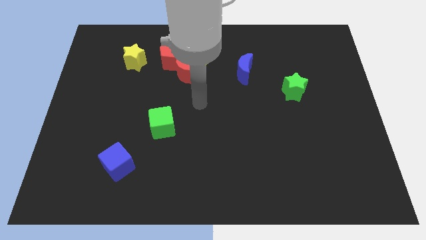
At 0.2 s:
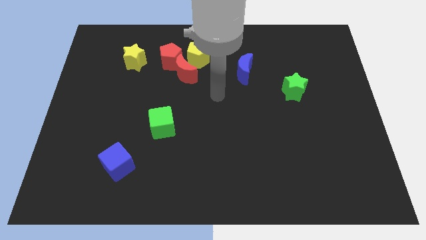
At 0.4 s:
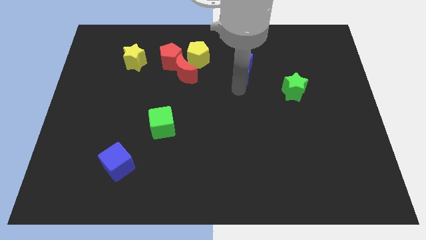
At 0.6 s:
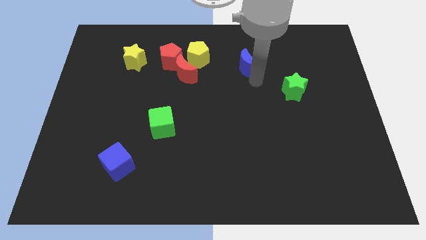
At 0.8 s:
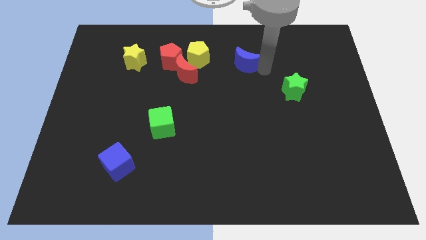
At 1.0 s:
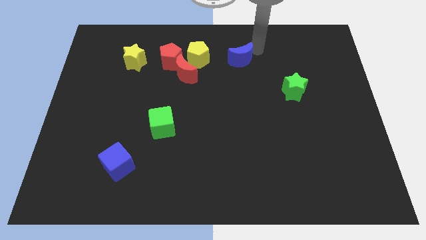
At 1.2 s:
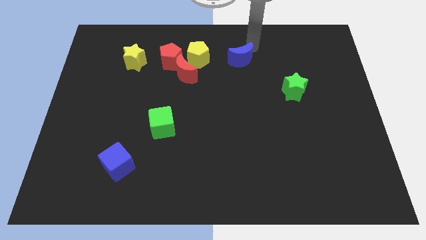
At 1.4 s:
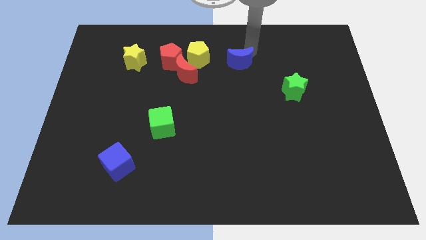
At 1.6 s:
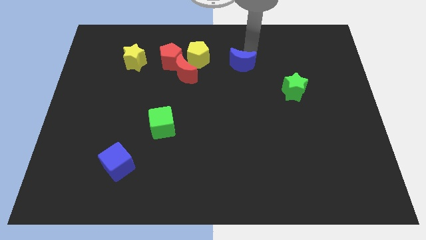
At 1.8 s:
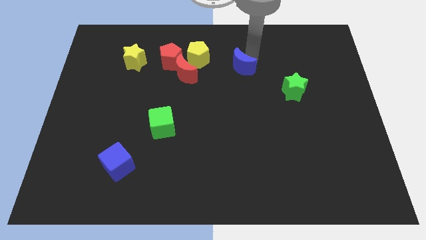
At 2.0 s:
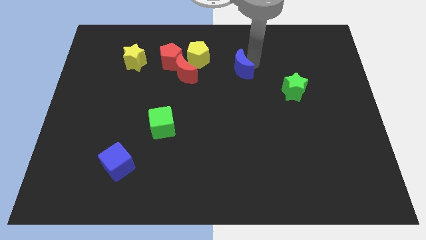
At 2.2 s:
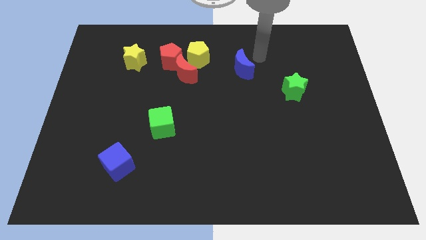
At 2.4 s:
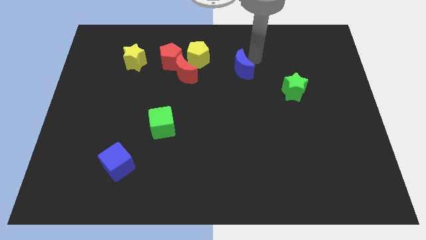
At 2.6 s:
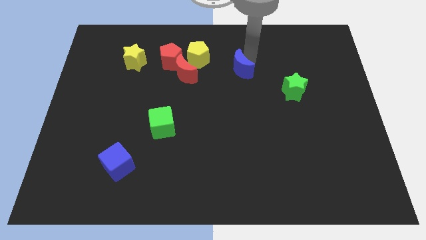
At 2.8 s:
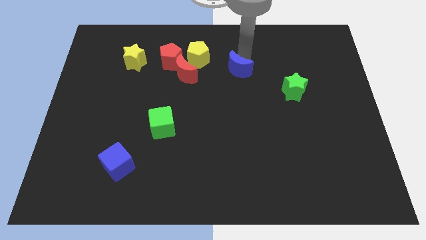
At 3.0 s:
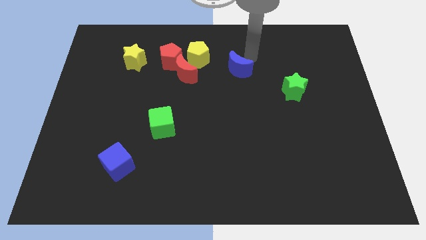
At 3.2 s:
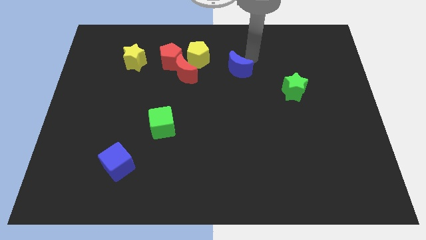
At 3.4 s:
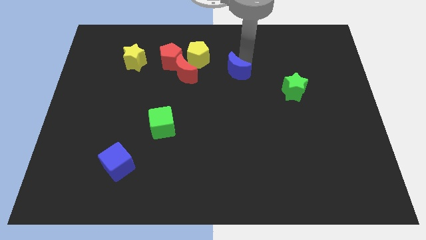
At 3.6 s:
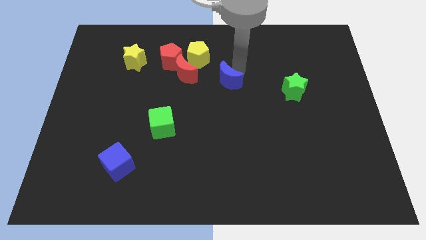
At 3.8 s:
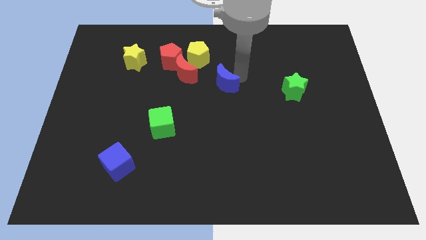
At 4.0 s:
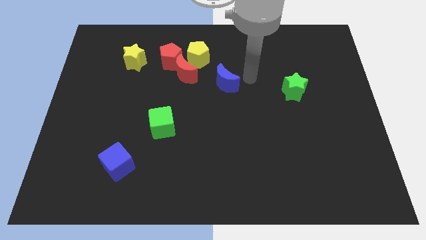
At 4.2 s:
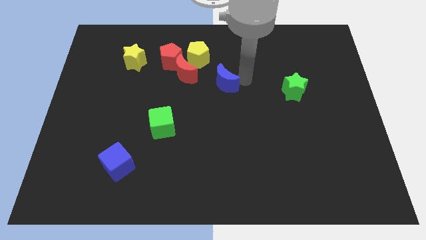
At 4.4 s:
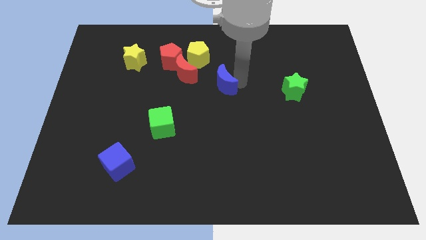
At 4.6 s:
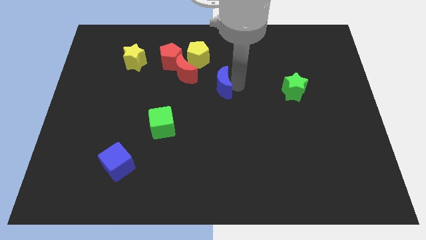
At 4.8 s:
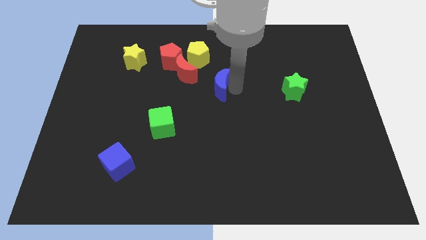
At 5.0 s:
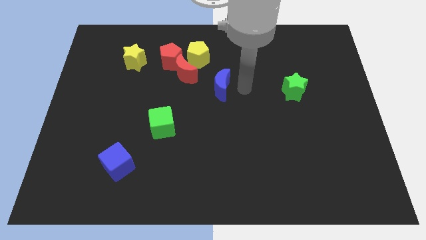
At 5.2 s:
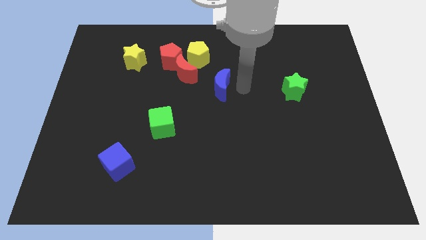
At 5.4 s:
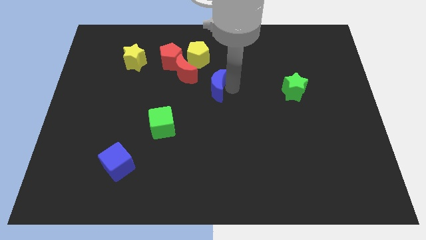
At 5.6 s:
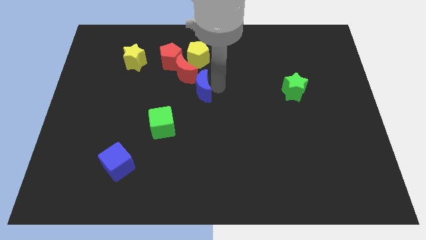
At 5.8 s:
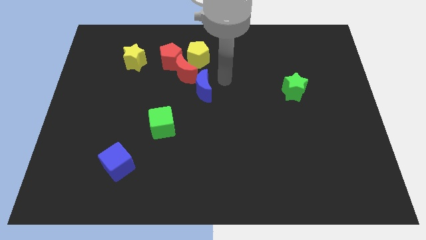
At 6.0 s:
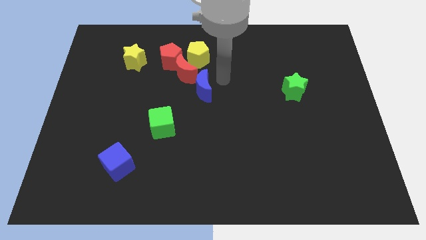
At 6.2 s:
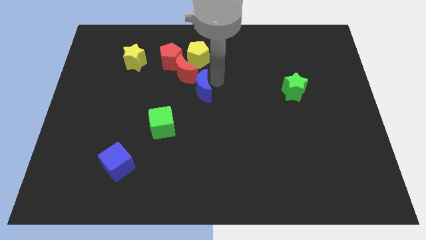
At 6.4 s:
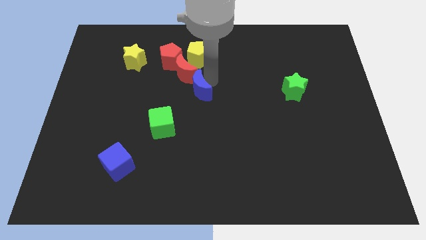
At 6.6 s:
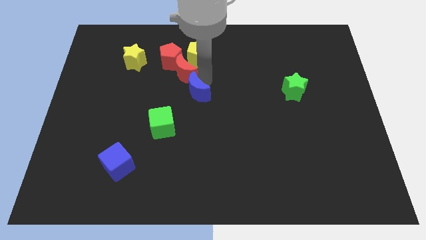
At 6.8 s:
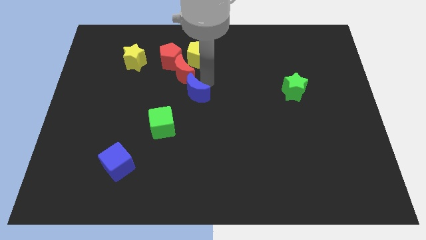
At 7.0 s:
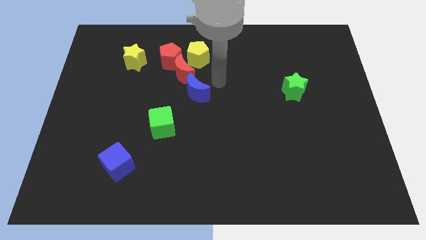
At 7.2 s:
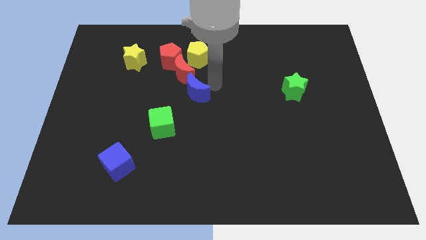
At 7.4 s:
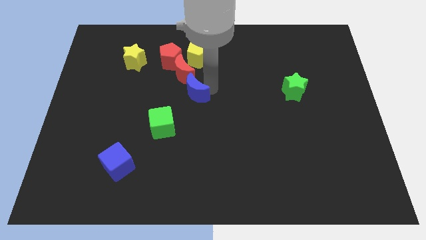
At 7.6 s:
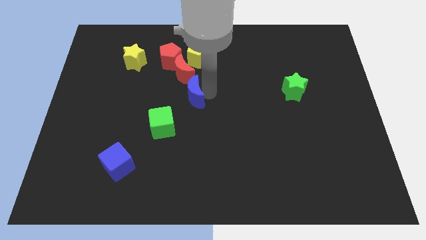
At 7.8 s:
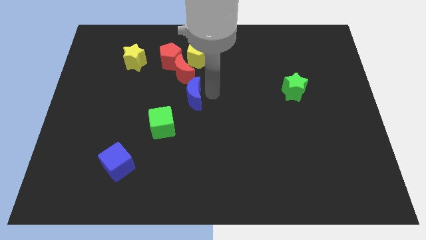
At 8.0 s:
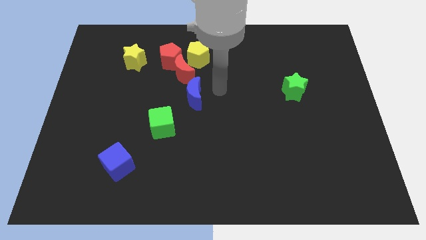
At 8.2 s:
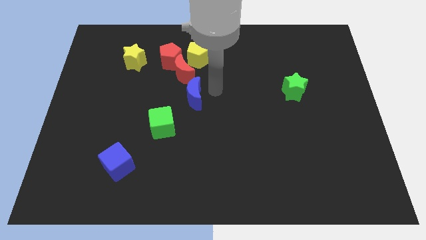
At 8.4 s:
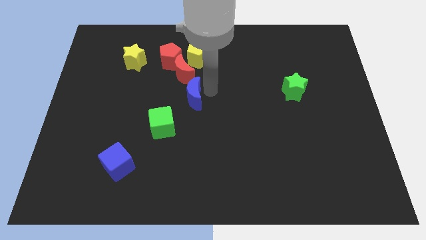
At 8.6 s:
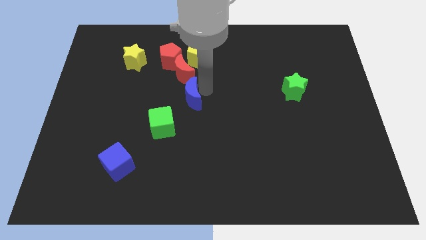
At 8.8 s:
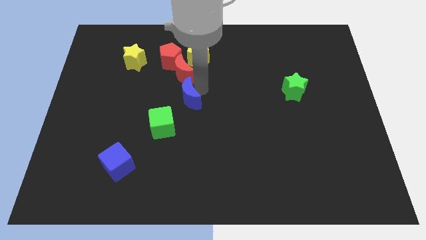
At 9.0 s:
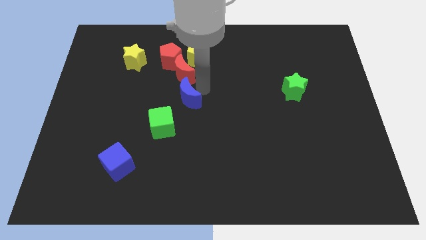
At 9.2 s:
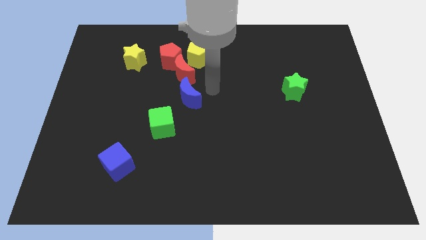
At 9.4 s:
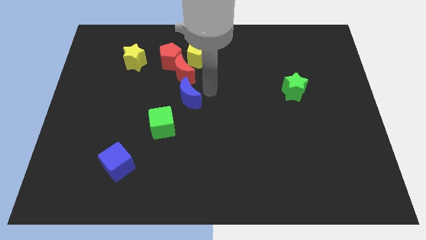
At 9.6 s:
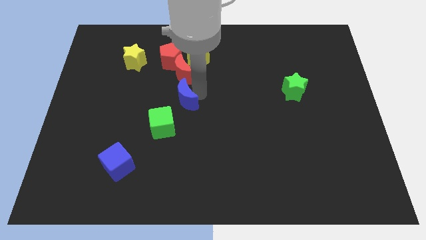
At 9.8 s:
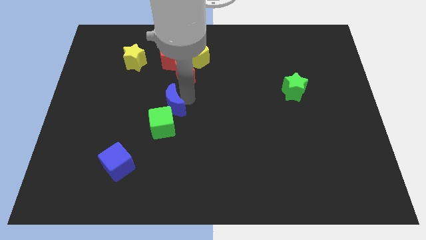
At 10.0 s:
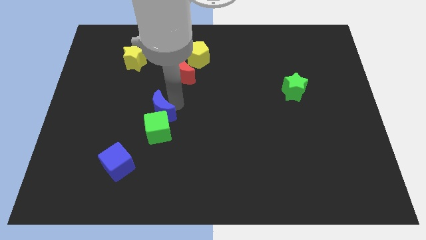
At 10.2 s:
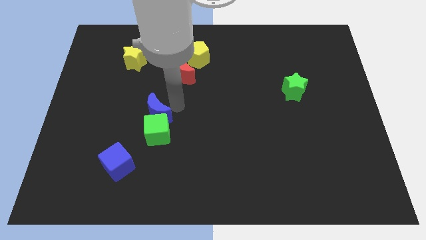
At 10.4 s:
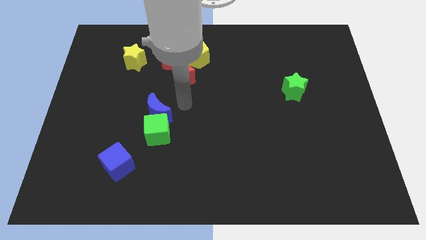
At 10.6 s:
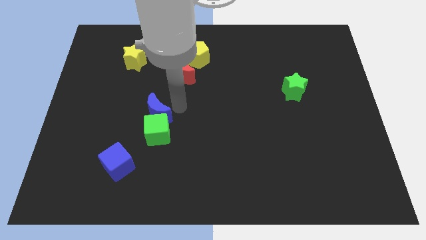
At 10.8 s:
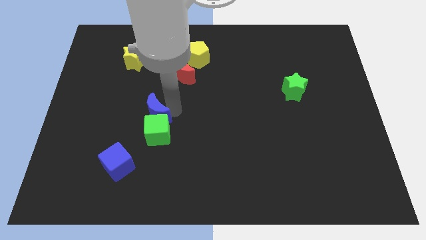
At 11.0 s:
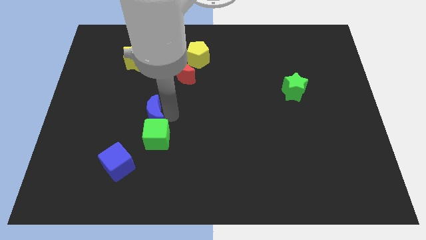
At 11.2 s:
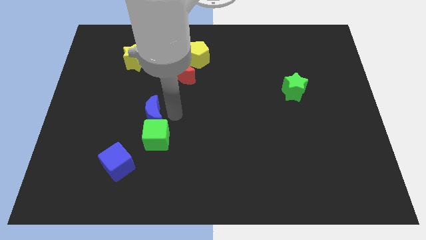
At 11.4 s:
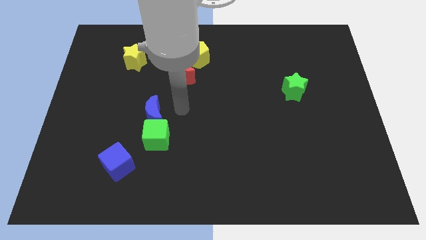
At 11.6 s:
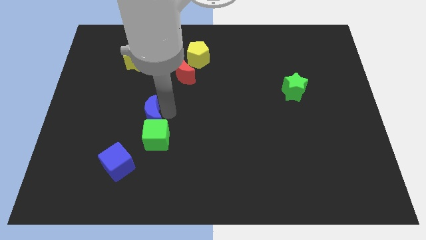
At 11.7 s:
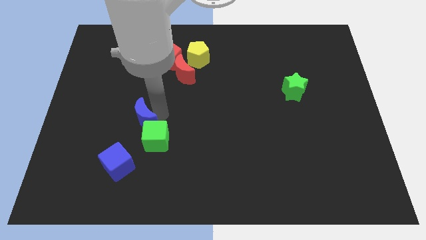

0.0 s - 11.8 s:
move the blue moon above the blue cube

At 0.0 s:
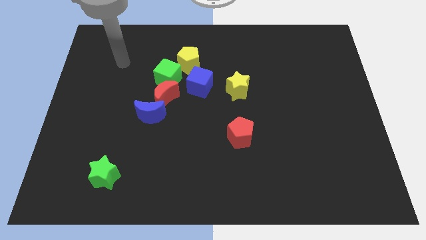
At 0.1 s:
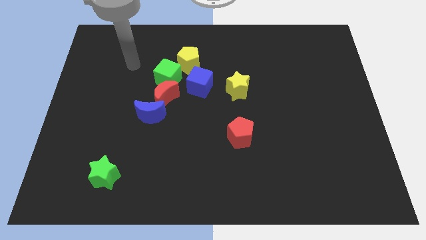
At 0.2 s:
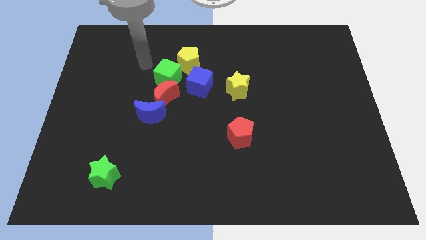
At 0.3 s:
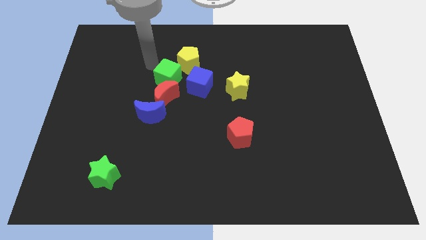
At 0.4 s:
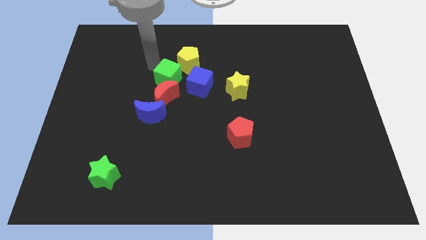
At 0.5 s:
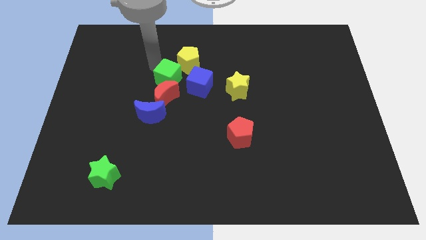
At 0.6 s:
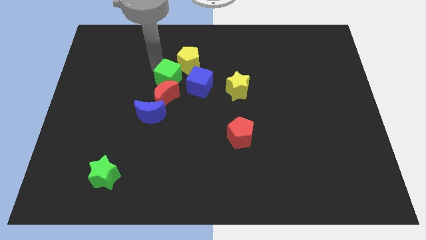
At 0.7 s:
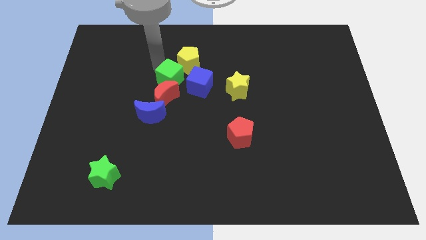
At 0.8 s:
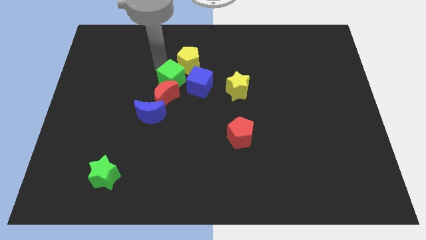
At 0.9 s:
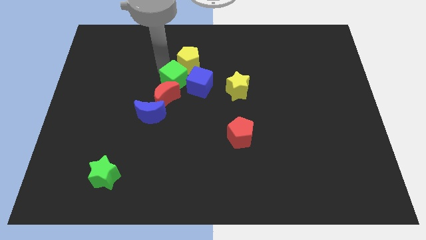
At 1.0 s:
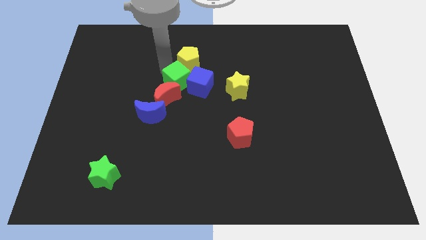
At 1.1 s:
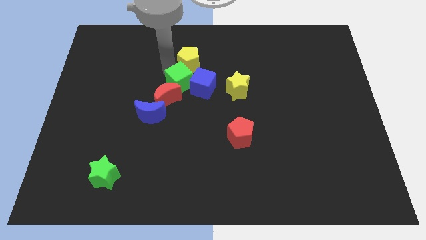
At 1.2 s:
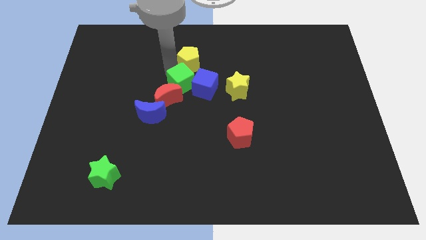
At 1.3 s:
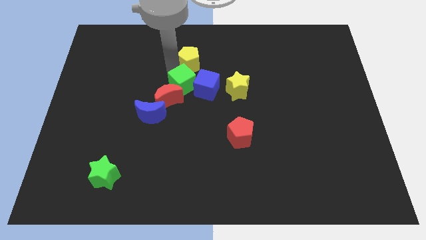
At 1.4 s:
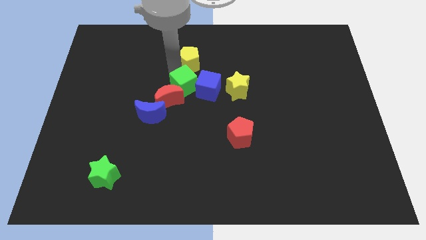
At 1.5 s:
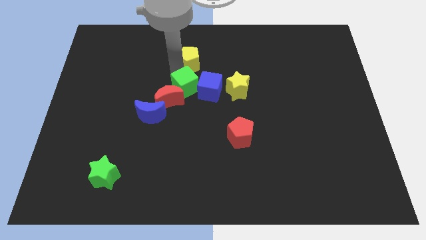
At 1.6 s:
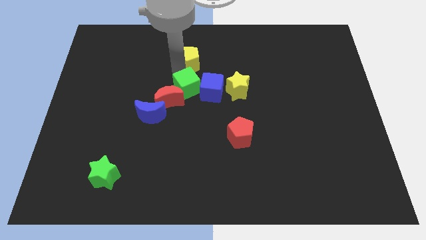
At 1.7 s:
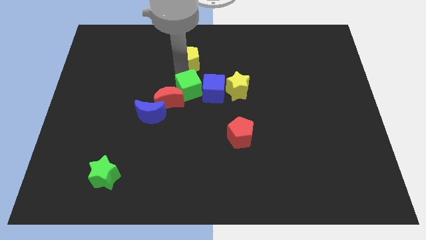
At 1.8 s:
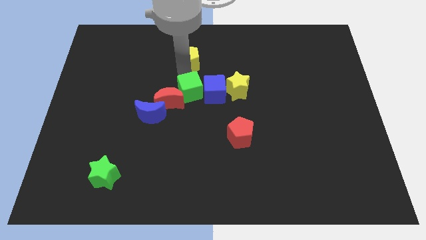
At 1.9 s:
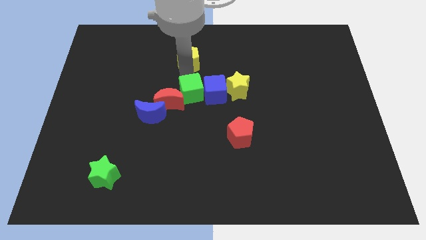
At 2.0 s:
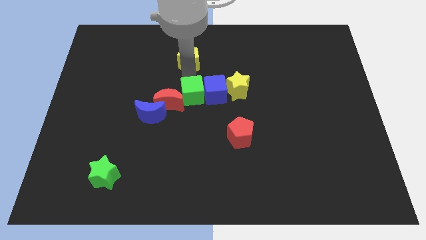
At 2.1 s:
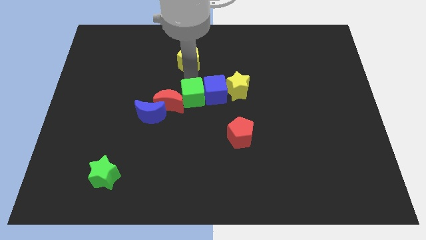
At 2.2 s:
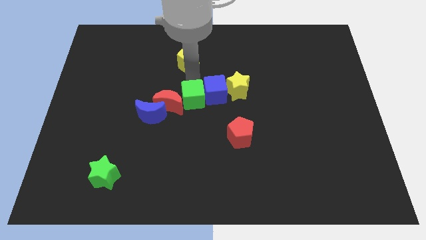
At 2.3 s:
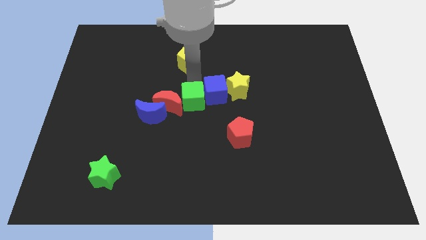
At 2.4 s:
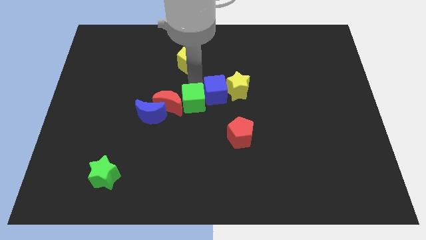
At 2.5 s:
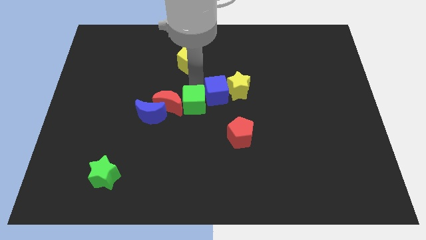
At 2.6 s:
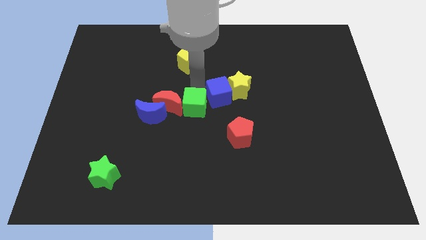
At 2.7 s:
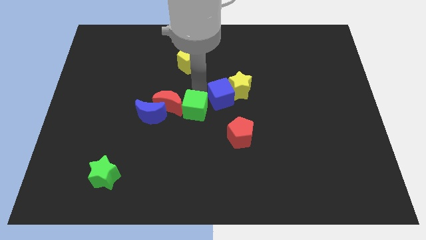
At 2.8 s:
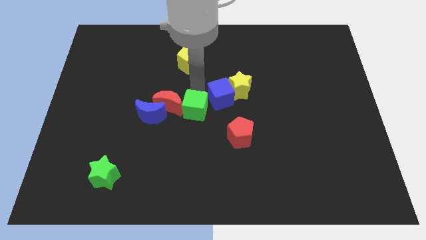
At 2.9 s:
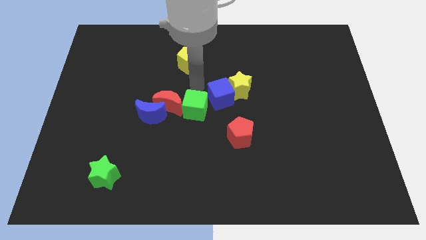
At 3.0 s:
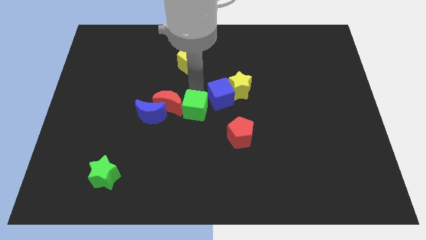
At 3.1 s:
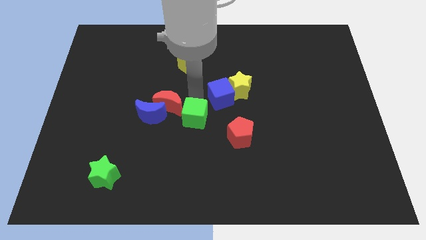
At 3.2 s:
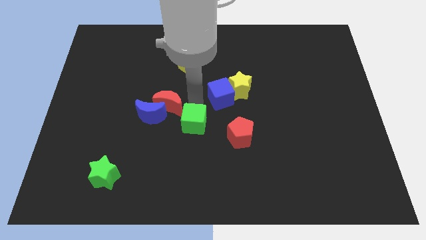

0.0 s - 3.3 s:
put the green cube left of the red pentagon
